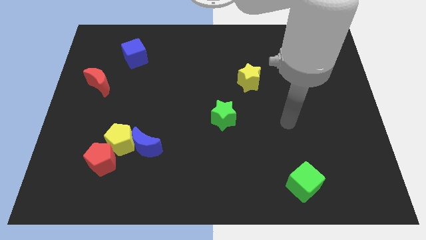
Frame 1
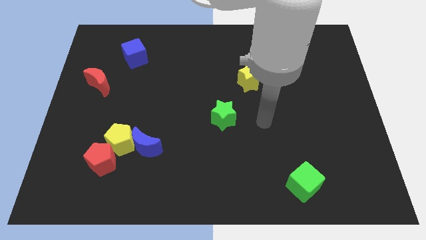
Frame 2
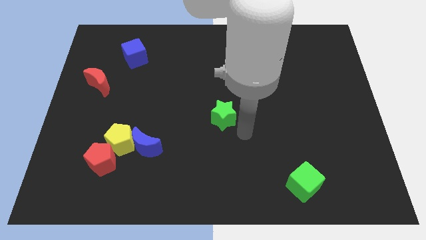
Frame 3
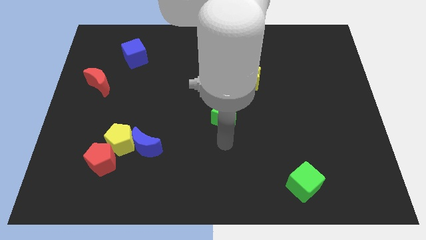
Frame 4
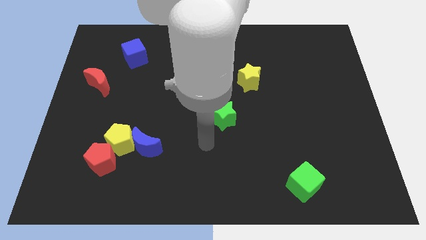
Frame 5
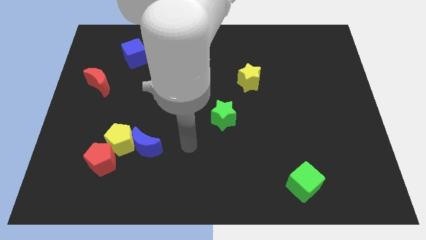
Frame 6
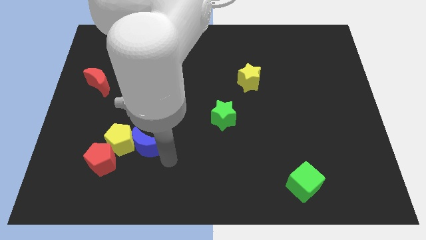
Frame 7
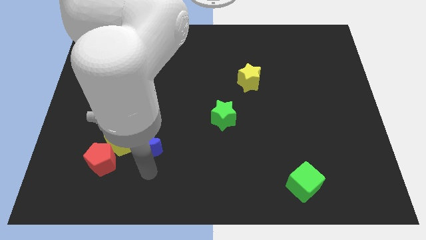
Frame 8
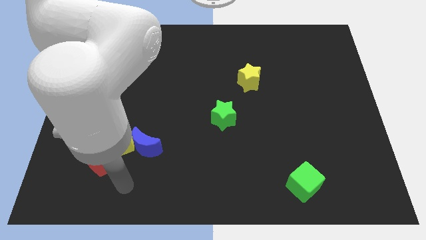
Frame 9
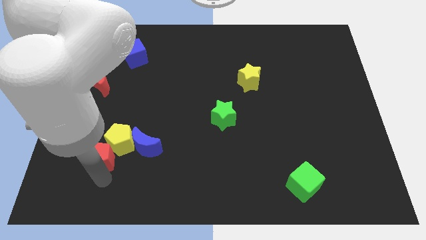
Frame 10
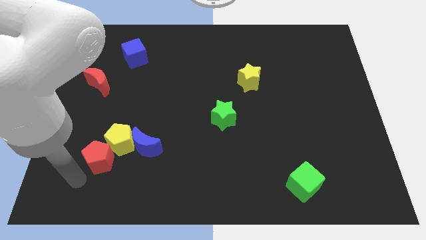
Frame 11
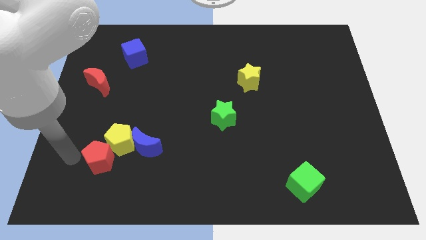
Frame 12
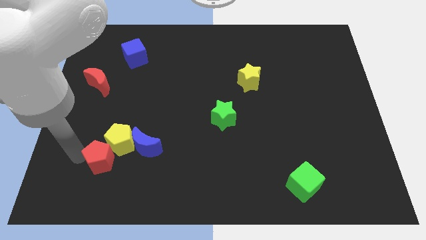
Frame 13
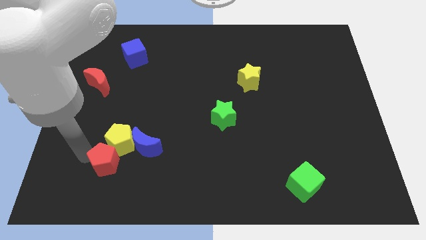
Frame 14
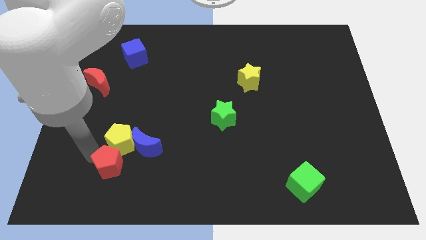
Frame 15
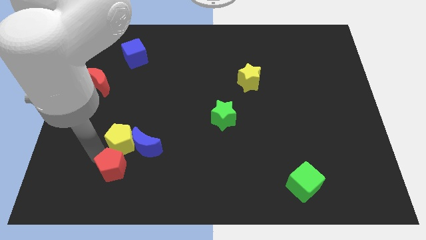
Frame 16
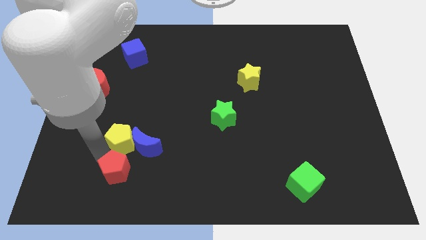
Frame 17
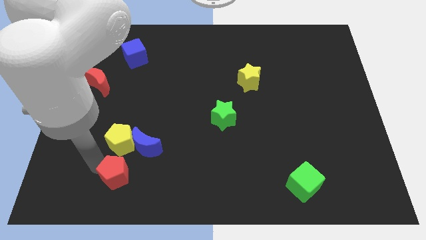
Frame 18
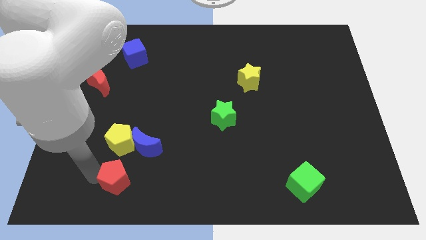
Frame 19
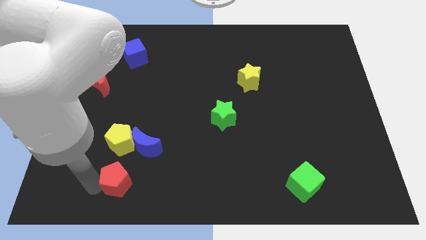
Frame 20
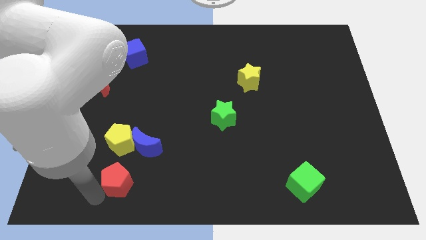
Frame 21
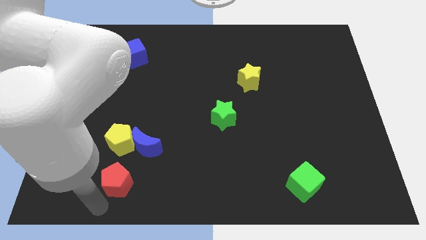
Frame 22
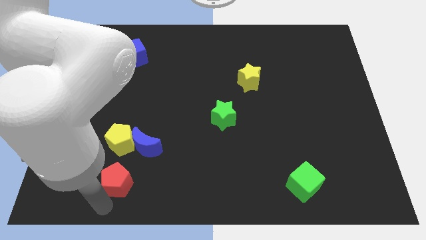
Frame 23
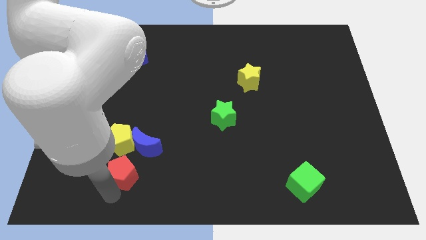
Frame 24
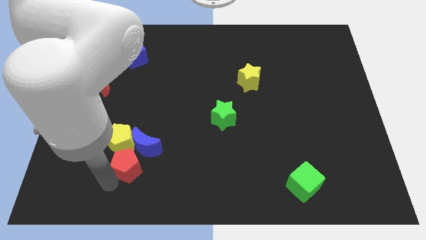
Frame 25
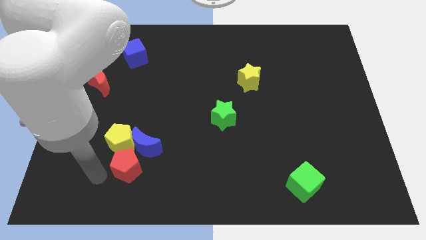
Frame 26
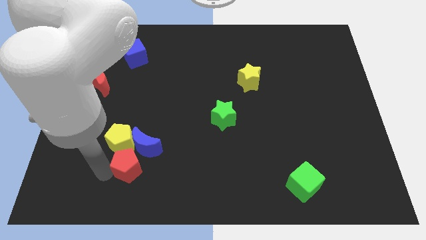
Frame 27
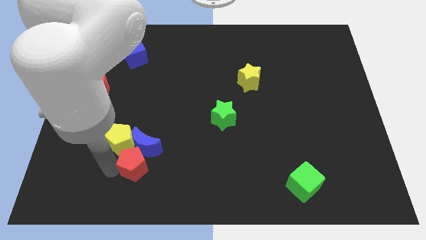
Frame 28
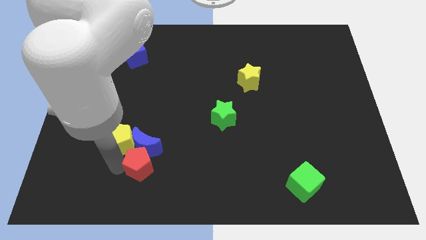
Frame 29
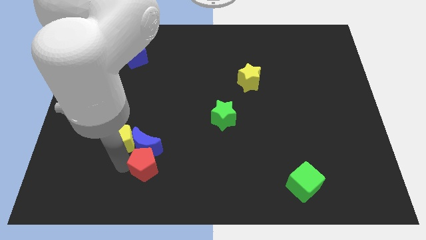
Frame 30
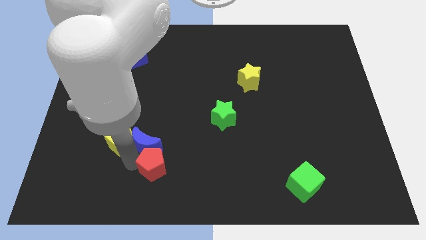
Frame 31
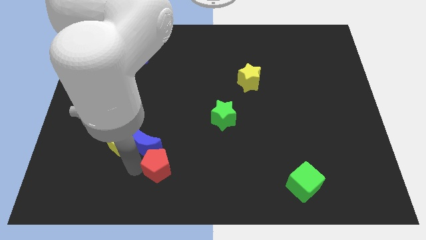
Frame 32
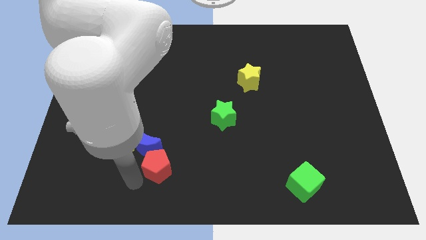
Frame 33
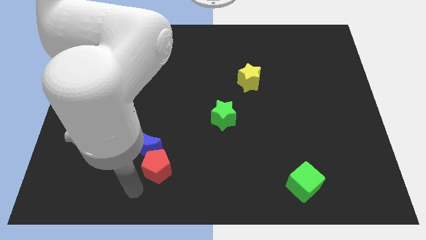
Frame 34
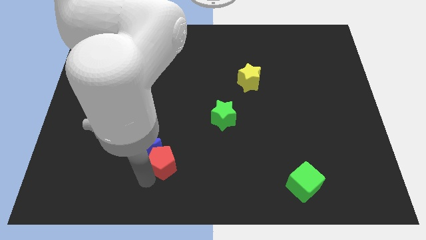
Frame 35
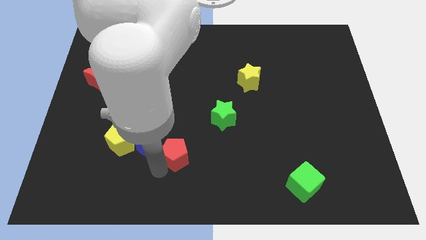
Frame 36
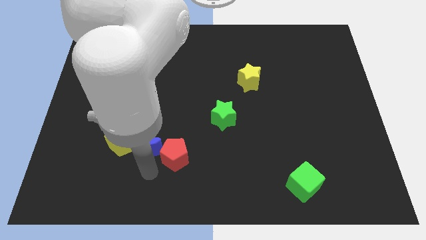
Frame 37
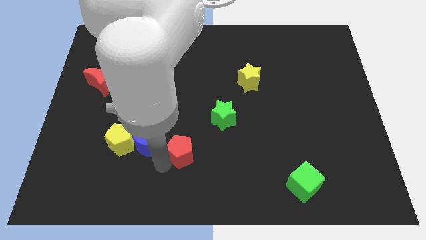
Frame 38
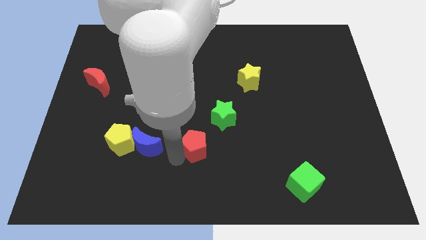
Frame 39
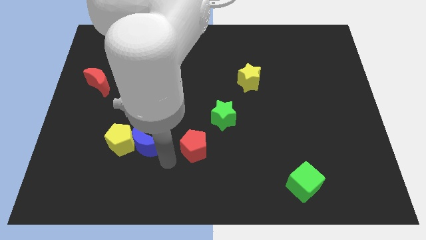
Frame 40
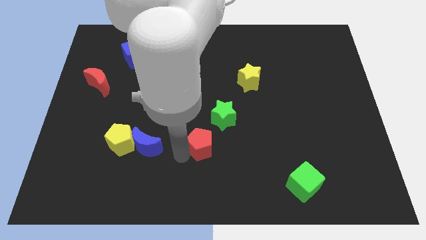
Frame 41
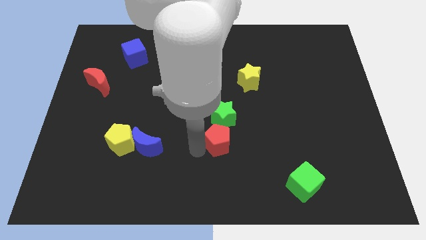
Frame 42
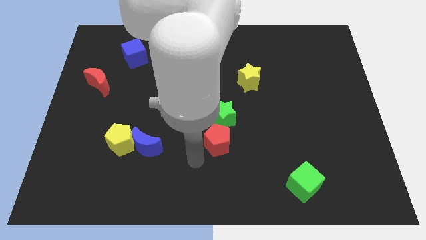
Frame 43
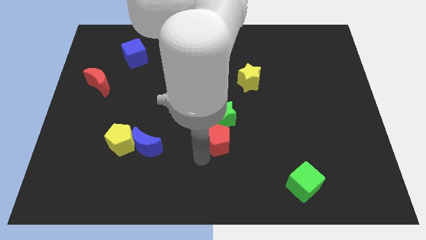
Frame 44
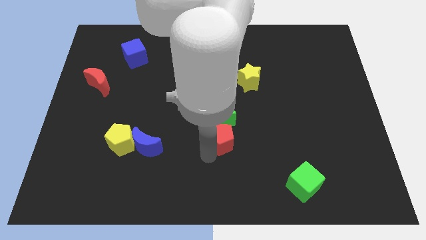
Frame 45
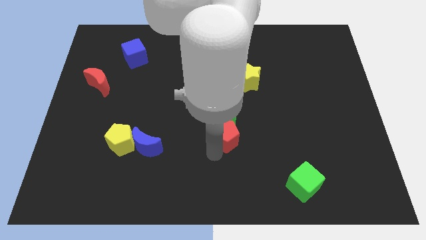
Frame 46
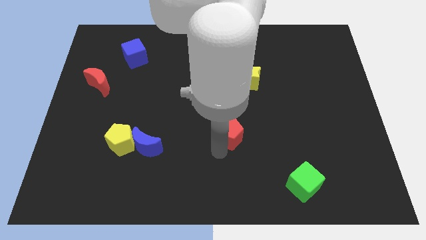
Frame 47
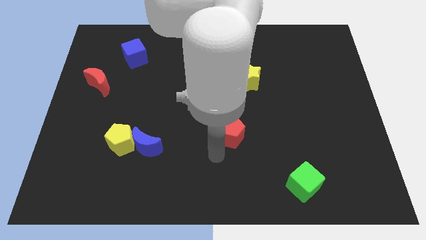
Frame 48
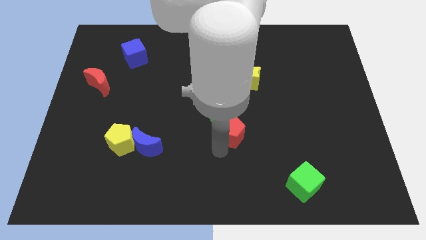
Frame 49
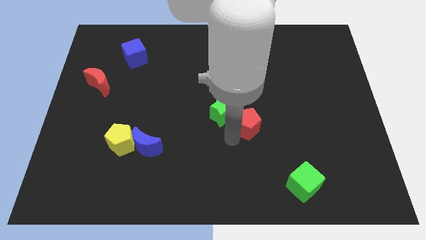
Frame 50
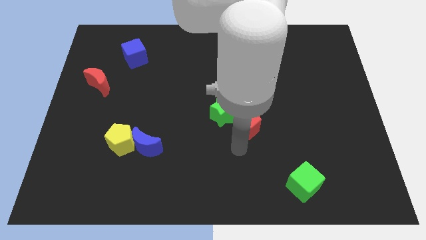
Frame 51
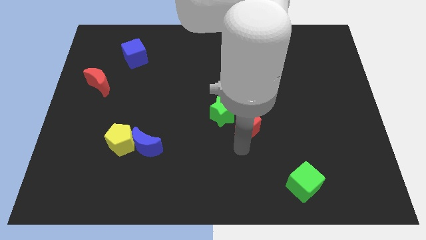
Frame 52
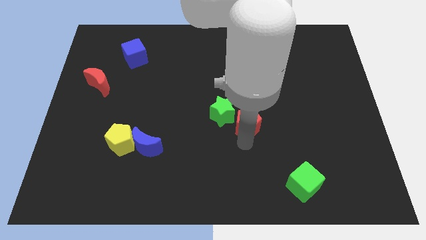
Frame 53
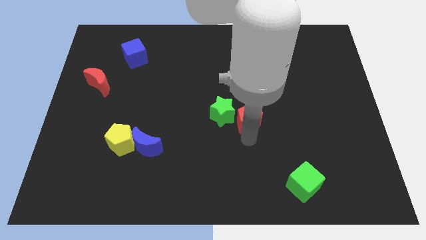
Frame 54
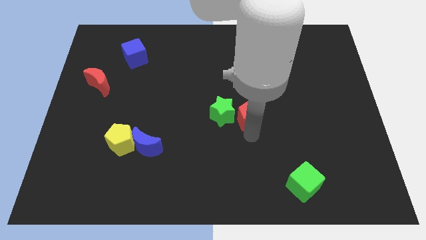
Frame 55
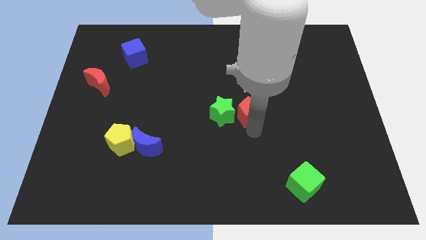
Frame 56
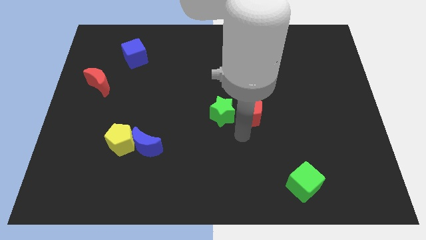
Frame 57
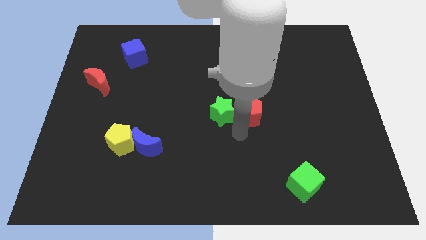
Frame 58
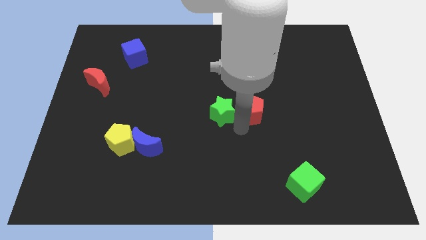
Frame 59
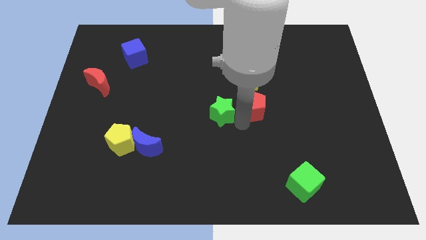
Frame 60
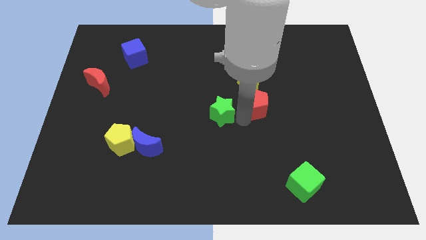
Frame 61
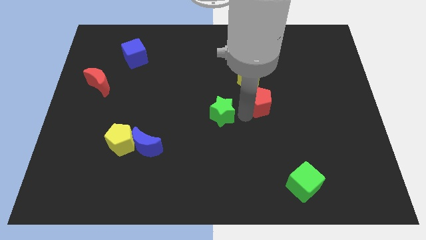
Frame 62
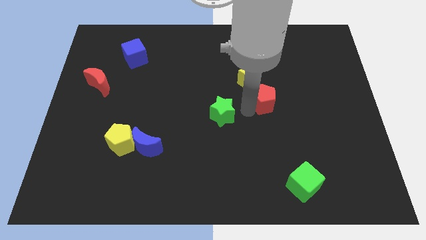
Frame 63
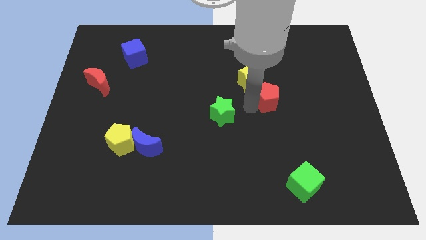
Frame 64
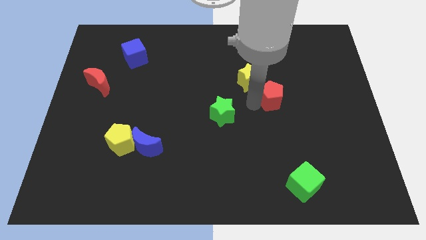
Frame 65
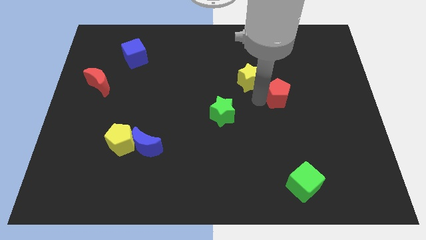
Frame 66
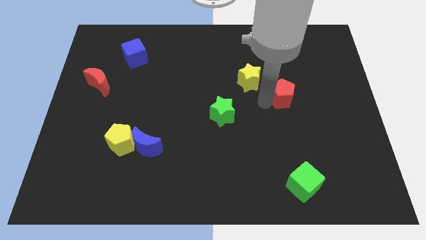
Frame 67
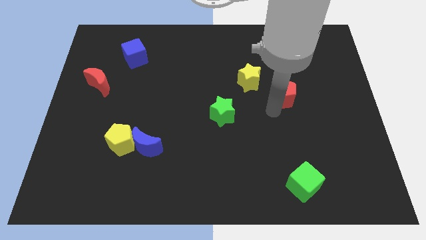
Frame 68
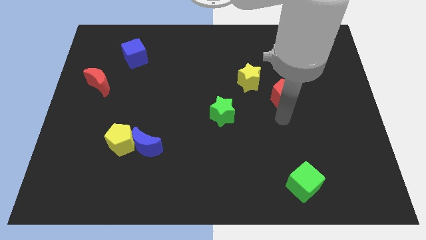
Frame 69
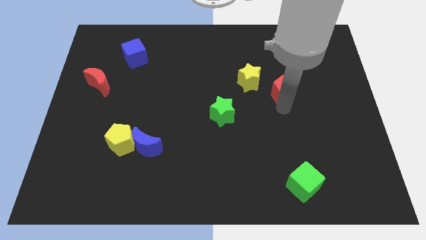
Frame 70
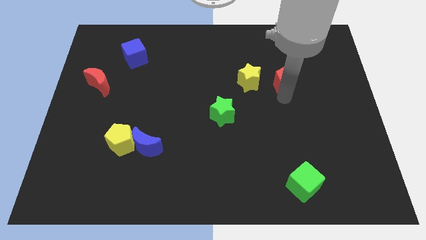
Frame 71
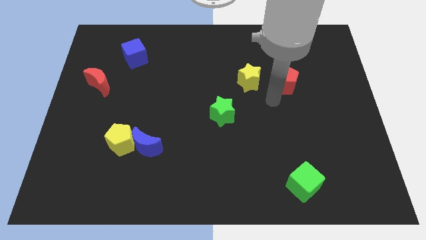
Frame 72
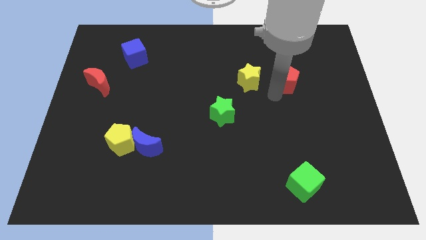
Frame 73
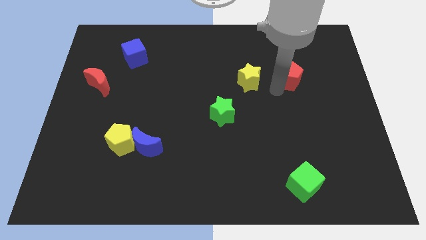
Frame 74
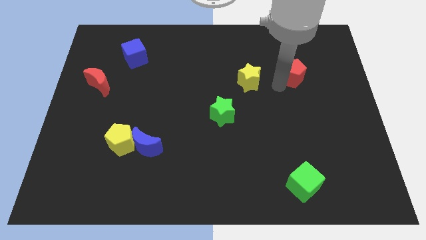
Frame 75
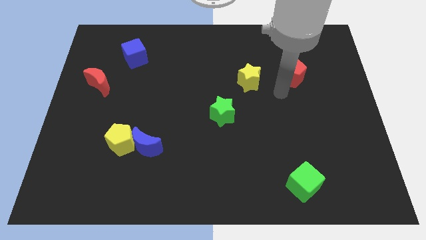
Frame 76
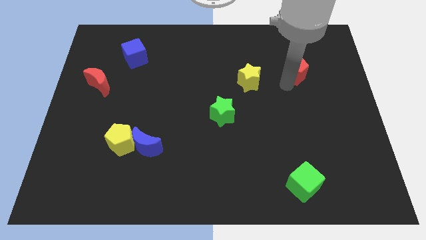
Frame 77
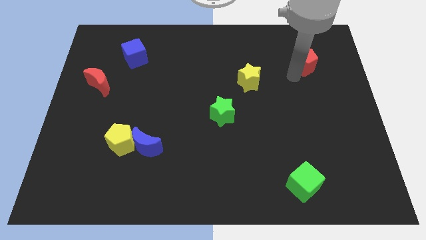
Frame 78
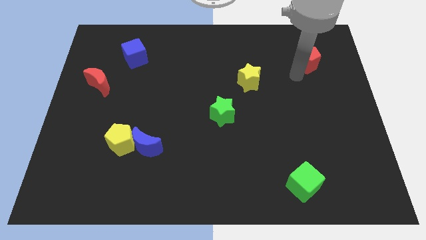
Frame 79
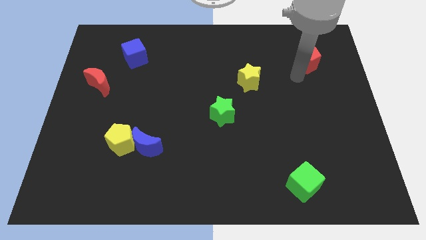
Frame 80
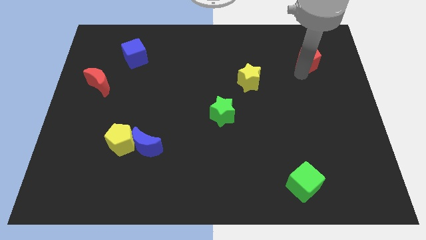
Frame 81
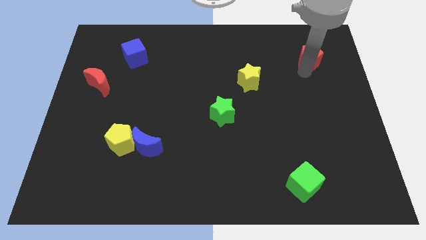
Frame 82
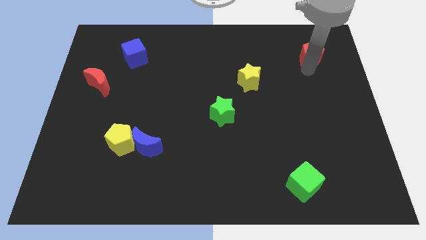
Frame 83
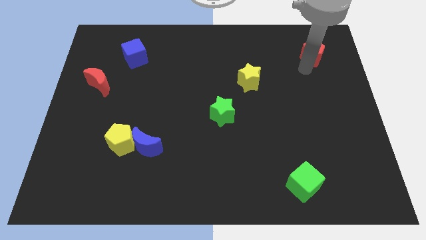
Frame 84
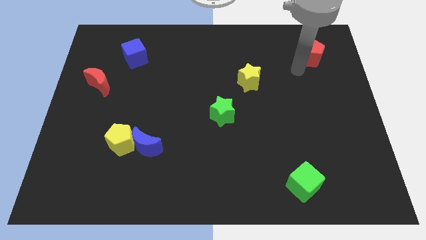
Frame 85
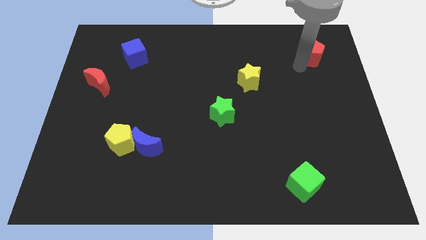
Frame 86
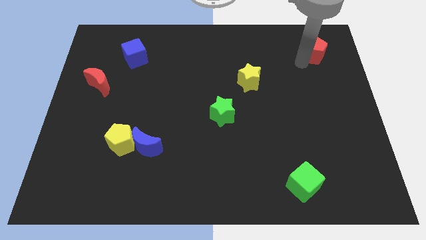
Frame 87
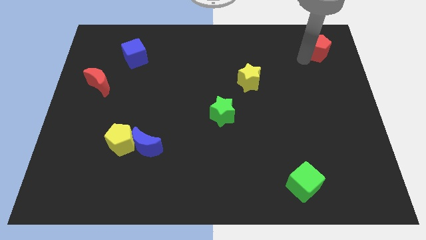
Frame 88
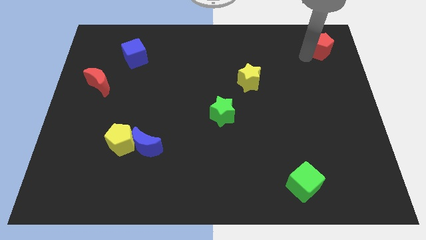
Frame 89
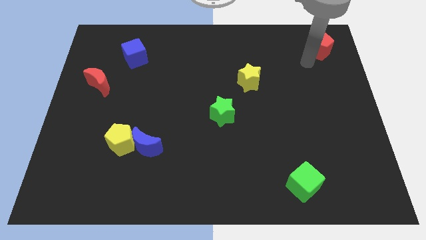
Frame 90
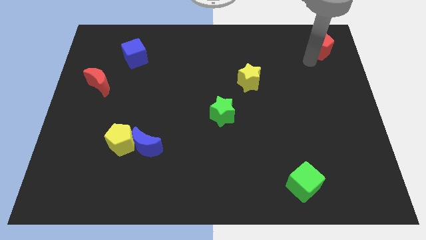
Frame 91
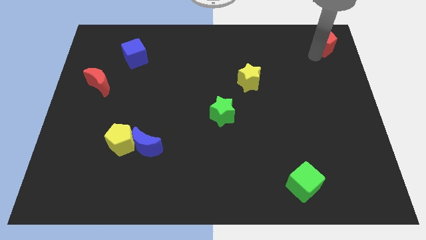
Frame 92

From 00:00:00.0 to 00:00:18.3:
put the red pentagon to the top right
